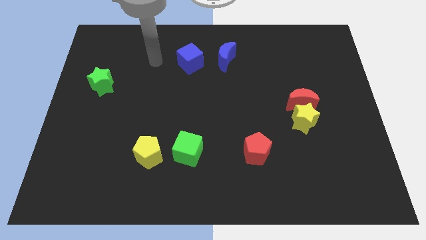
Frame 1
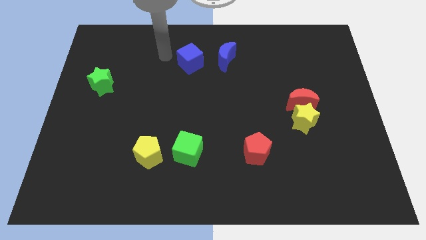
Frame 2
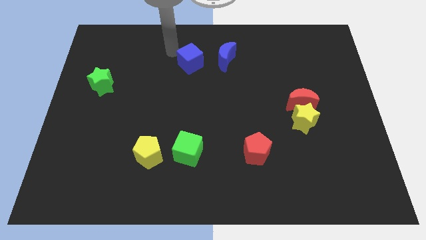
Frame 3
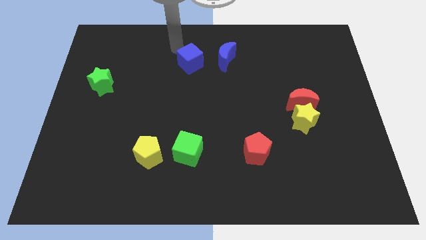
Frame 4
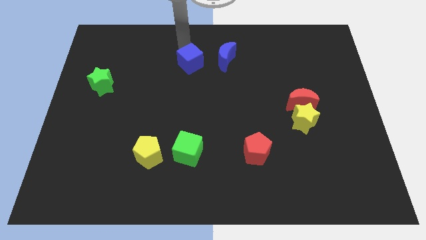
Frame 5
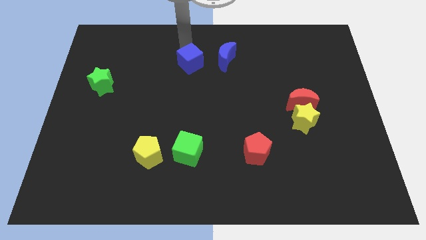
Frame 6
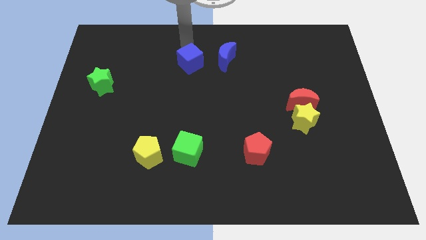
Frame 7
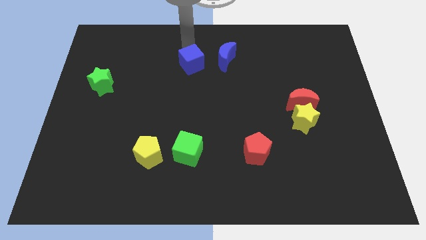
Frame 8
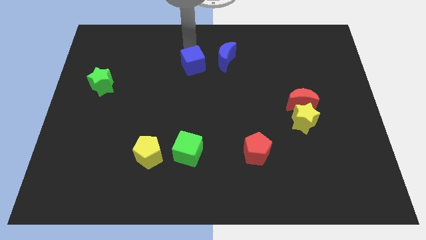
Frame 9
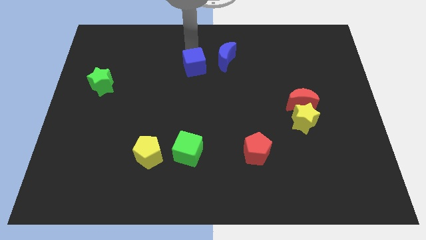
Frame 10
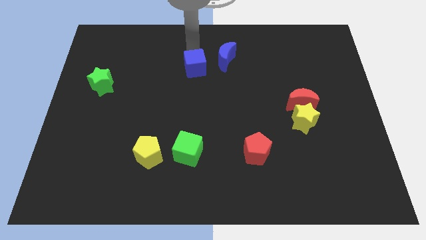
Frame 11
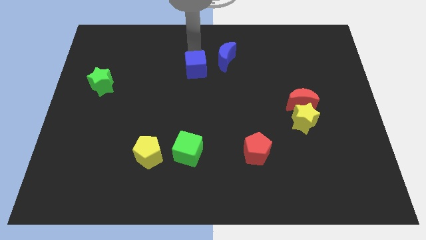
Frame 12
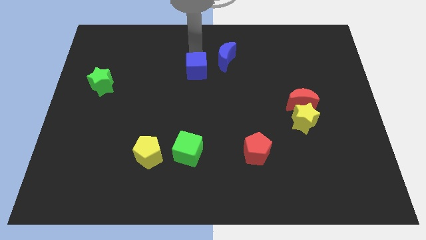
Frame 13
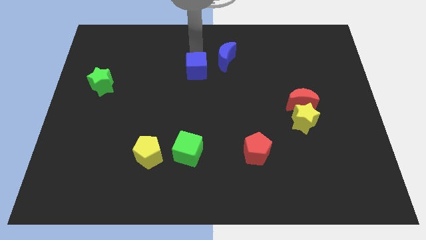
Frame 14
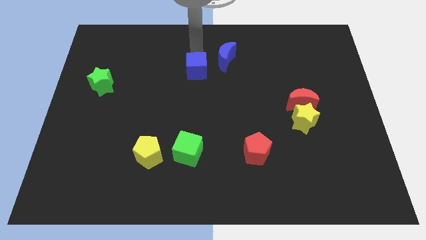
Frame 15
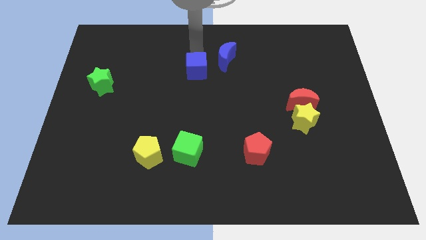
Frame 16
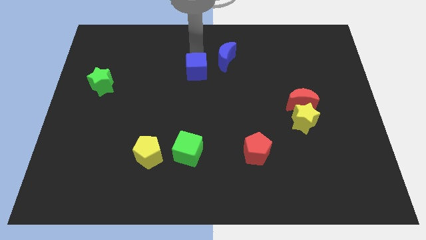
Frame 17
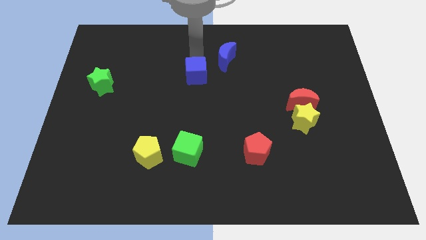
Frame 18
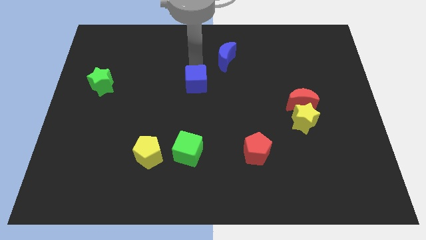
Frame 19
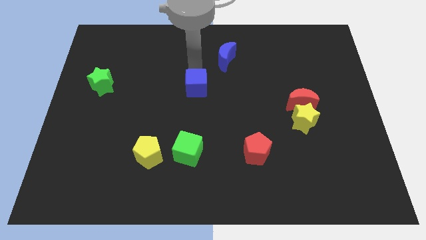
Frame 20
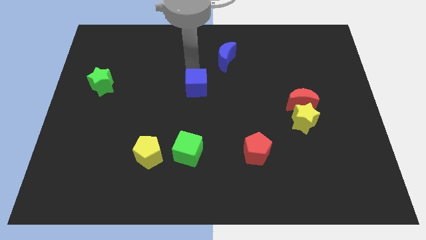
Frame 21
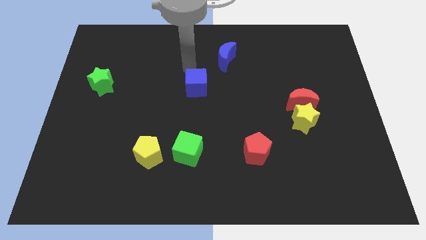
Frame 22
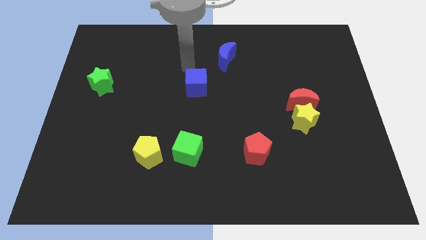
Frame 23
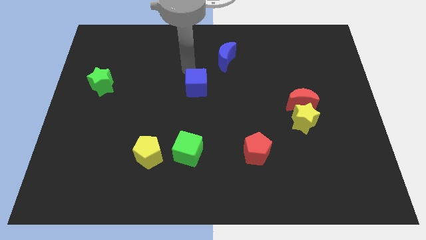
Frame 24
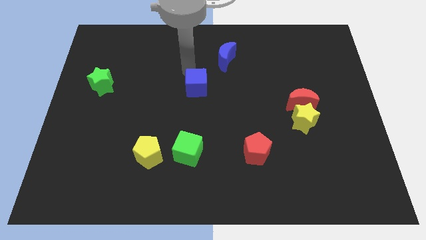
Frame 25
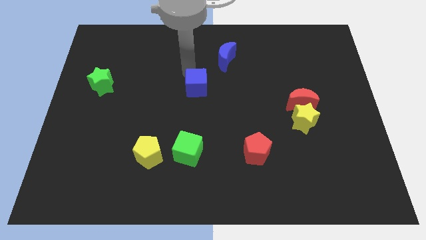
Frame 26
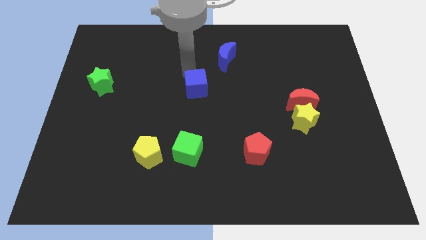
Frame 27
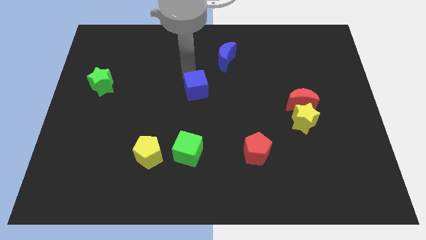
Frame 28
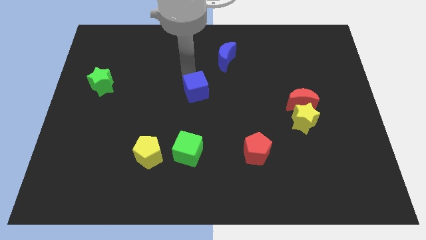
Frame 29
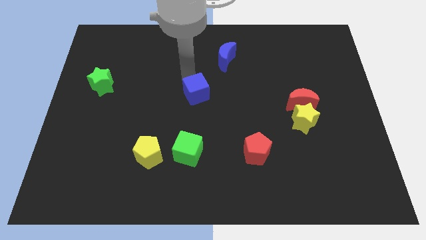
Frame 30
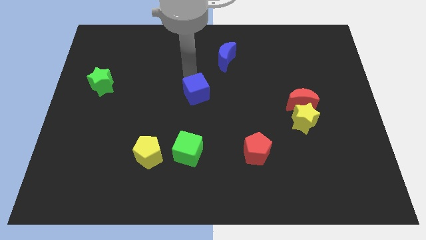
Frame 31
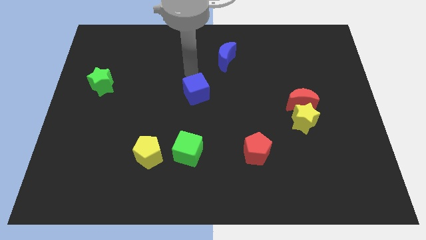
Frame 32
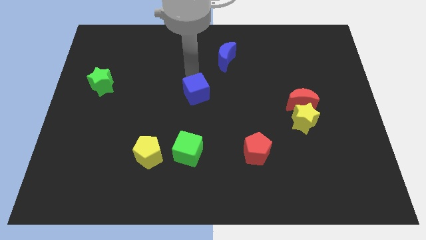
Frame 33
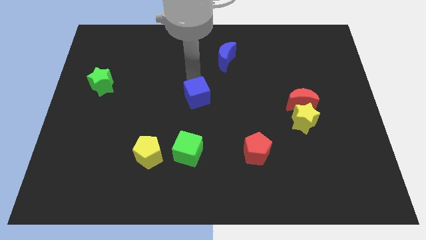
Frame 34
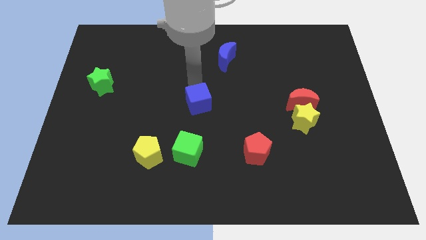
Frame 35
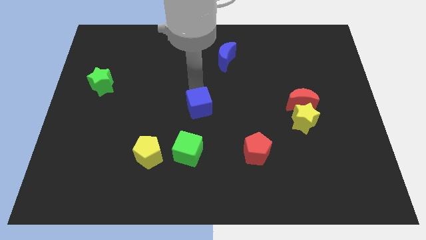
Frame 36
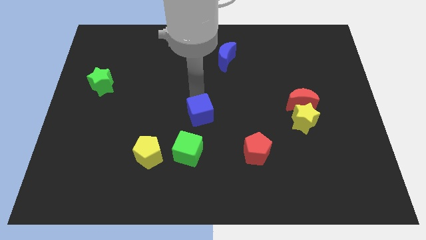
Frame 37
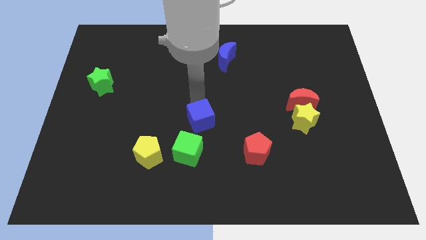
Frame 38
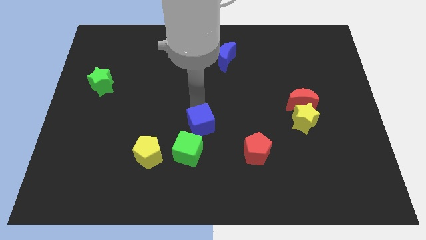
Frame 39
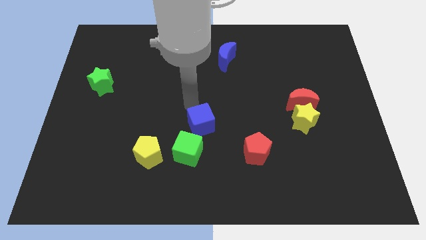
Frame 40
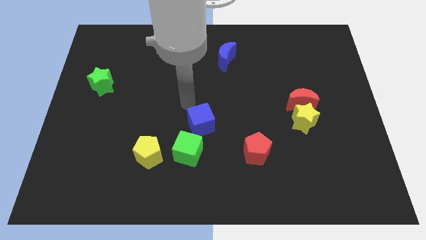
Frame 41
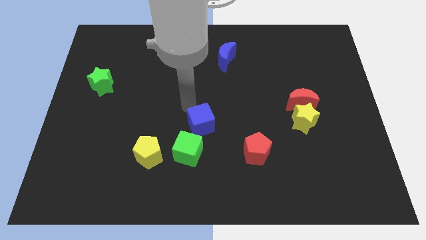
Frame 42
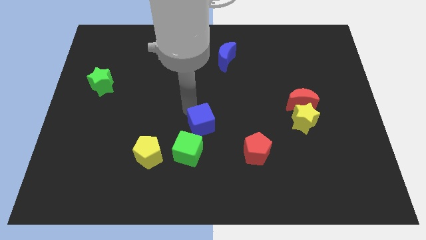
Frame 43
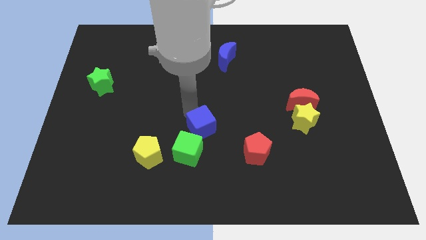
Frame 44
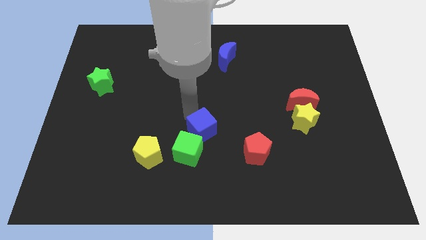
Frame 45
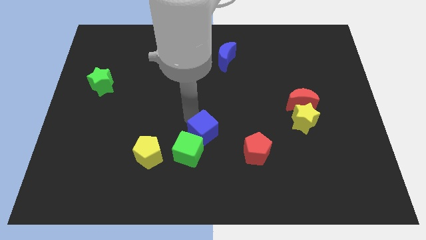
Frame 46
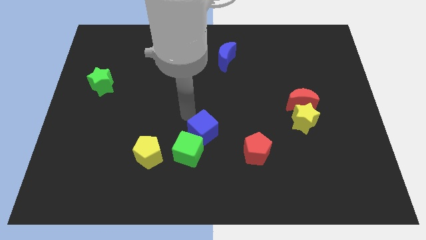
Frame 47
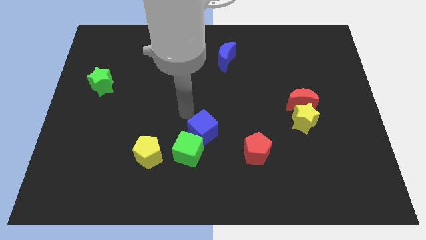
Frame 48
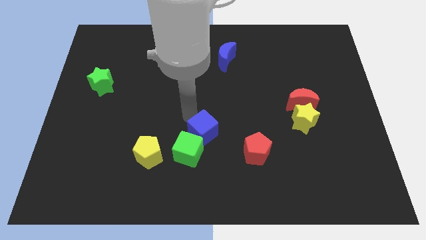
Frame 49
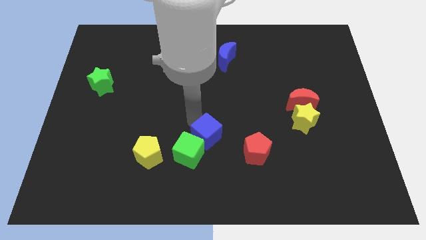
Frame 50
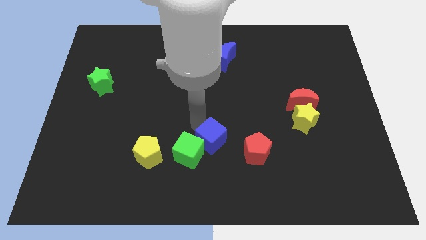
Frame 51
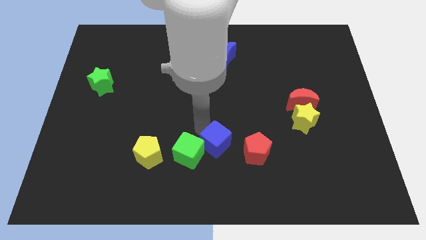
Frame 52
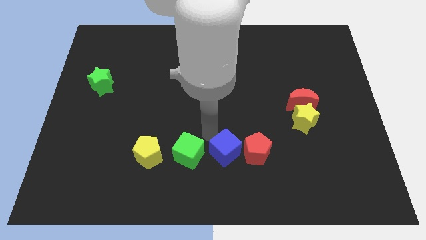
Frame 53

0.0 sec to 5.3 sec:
slide the blue cube diagonally down and to the left of the red pentagon

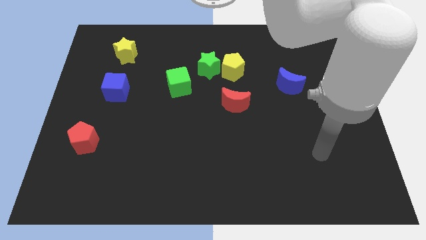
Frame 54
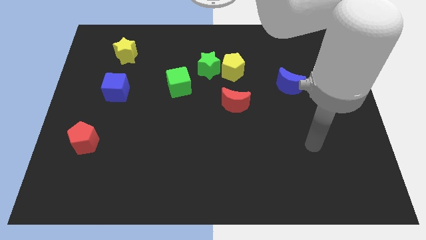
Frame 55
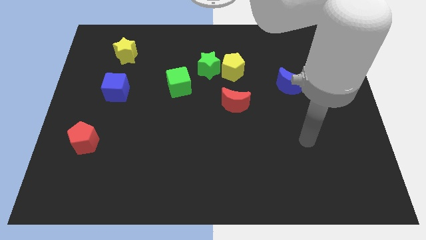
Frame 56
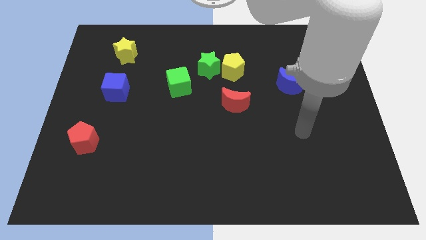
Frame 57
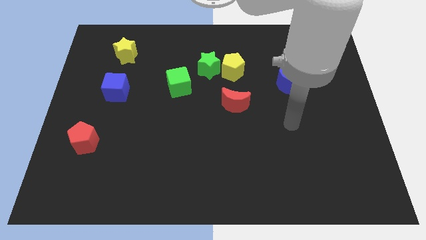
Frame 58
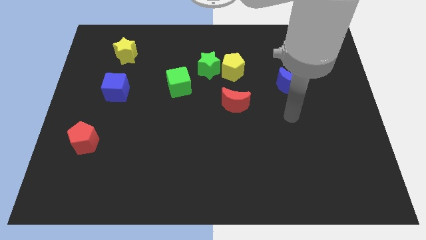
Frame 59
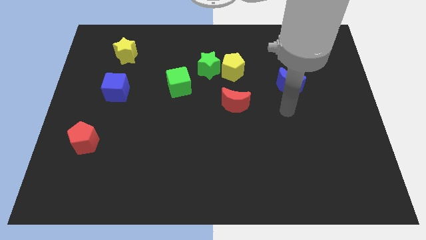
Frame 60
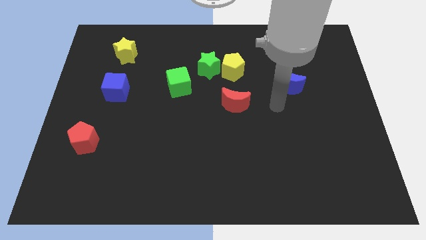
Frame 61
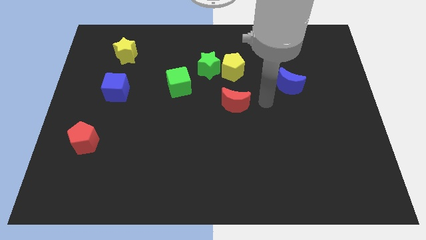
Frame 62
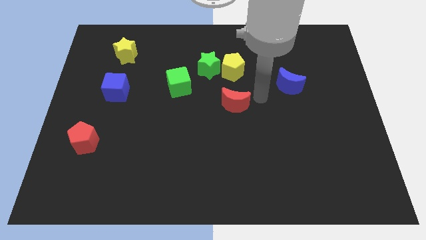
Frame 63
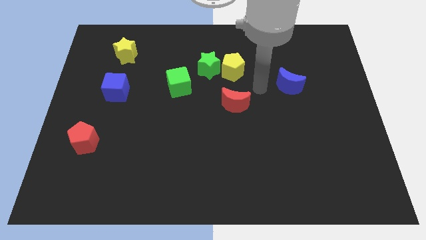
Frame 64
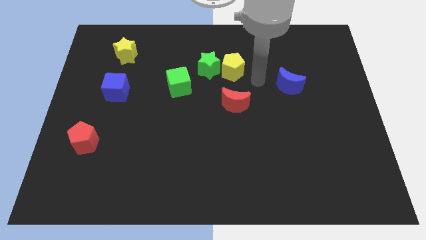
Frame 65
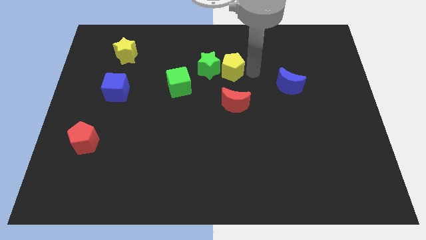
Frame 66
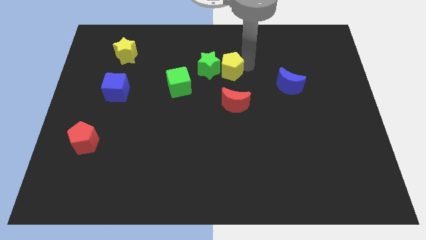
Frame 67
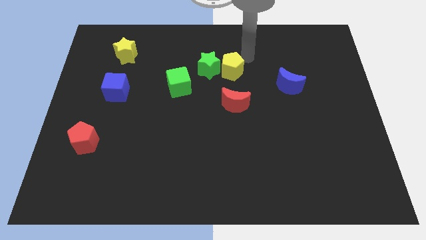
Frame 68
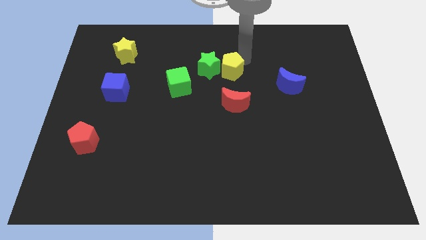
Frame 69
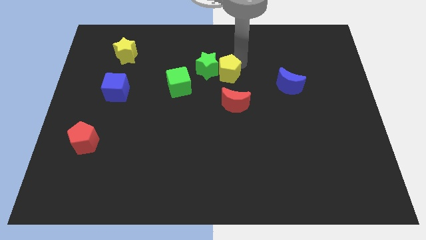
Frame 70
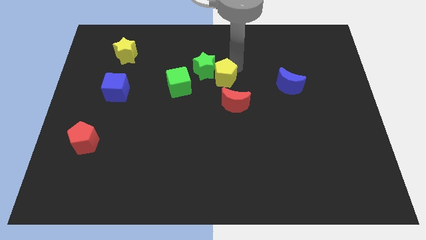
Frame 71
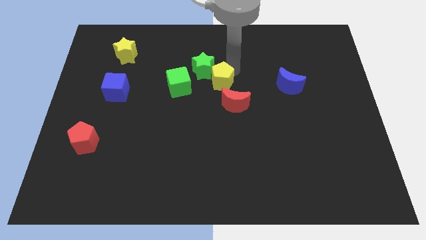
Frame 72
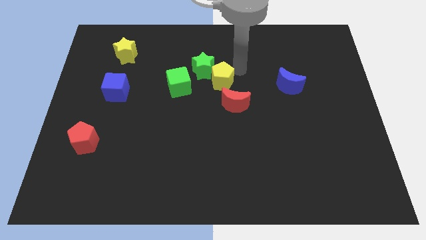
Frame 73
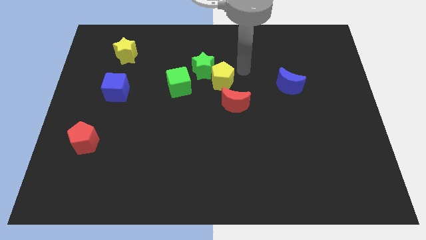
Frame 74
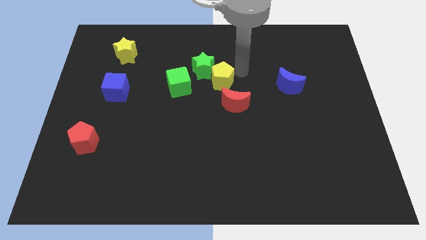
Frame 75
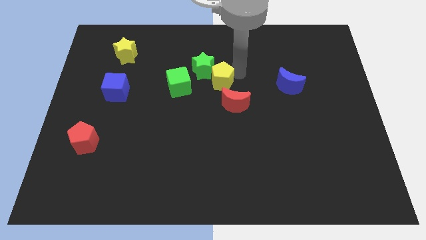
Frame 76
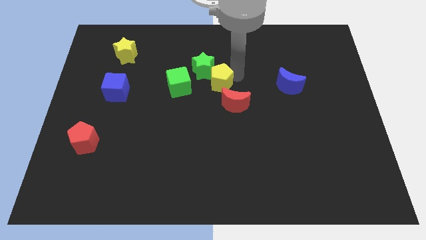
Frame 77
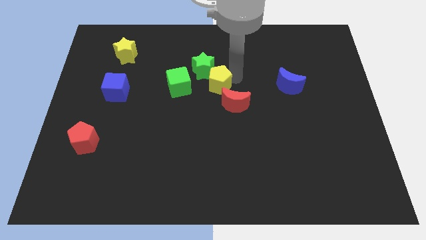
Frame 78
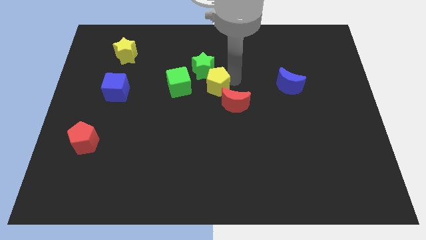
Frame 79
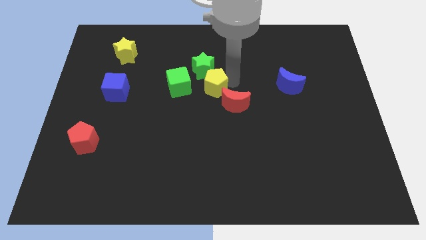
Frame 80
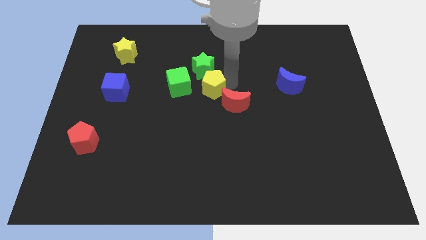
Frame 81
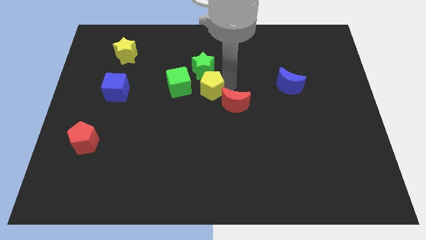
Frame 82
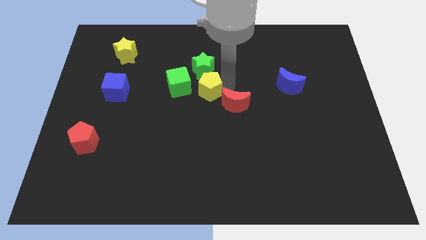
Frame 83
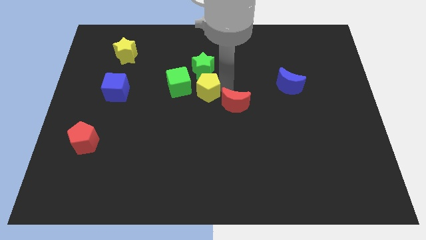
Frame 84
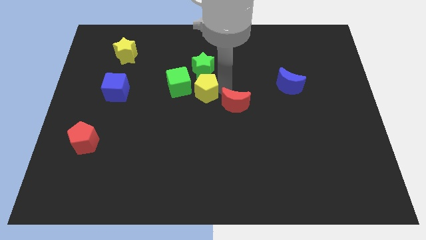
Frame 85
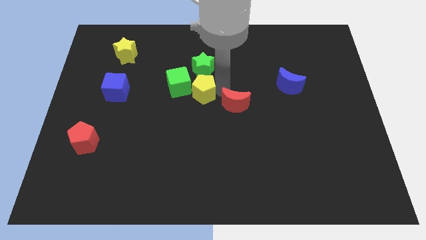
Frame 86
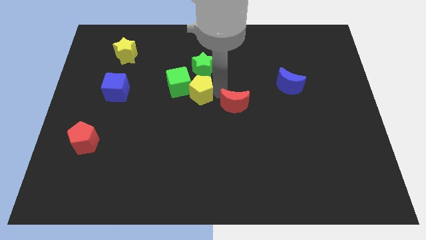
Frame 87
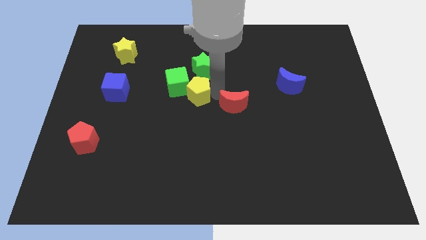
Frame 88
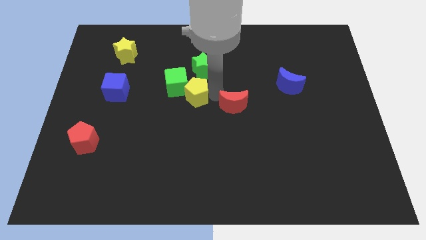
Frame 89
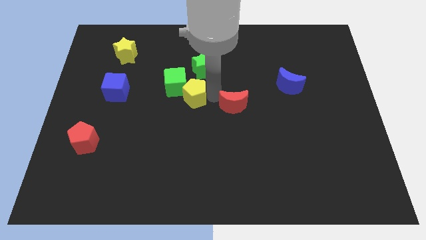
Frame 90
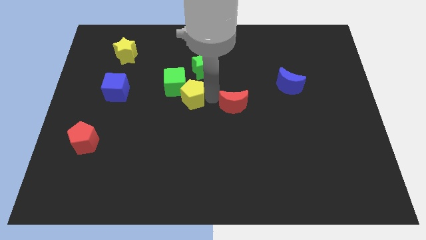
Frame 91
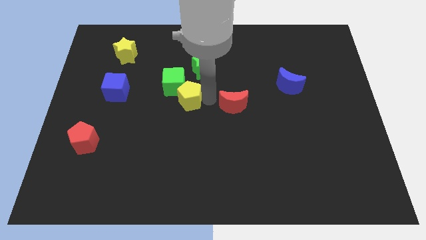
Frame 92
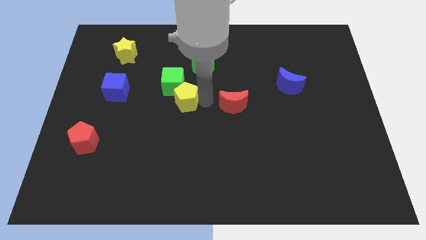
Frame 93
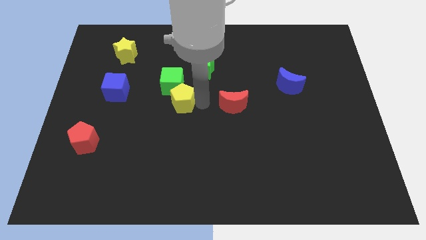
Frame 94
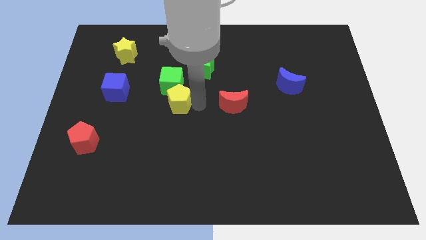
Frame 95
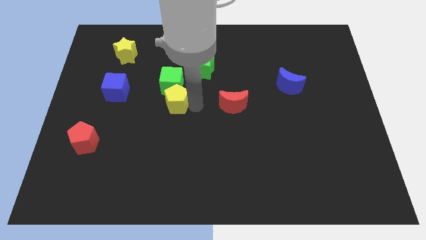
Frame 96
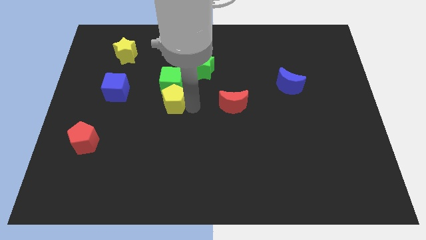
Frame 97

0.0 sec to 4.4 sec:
put the yellow pentagon to the bottom left side of the green cube
